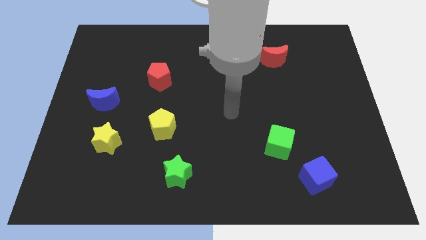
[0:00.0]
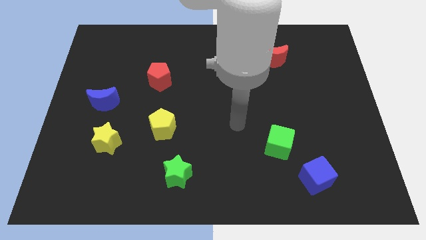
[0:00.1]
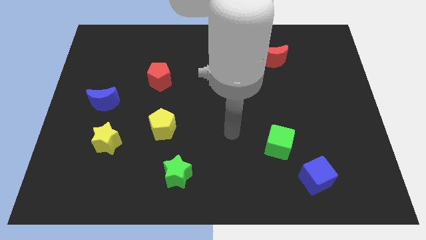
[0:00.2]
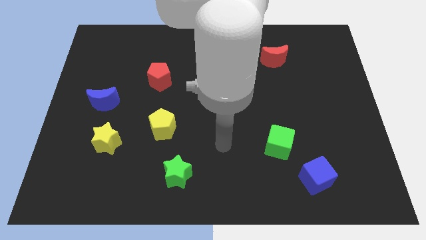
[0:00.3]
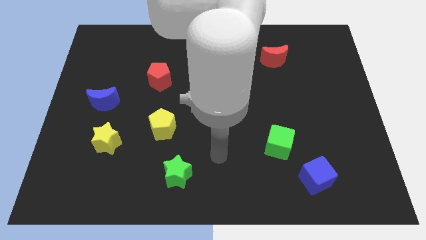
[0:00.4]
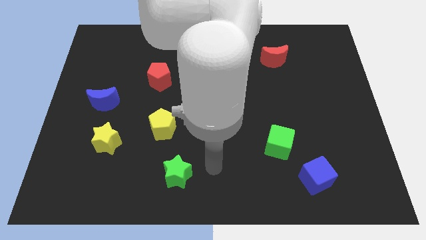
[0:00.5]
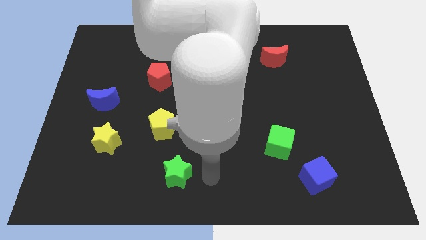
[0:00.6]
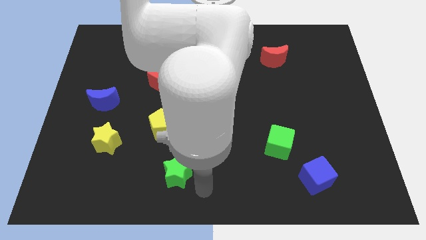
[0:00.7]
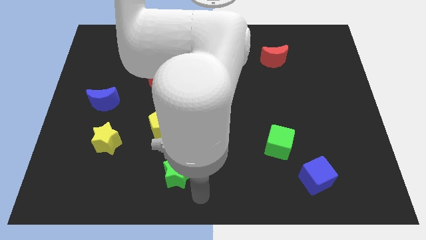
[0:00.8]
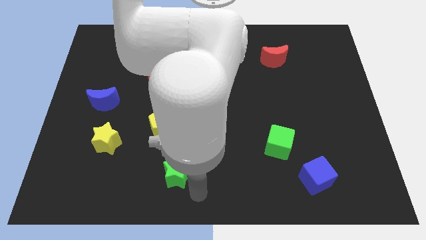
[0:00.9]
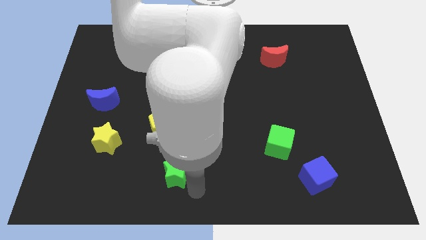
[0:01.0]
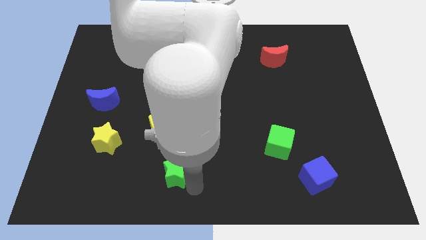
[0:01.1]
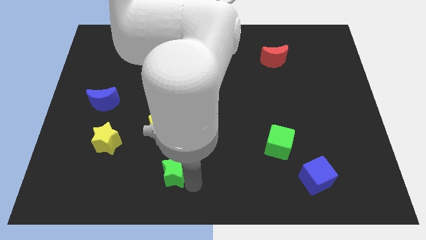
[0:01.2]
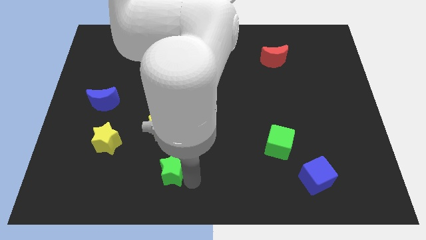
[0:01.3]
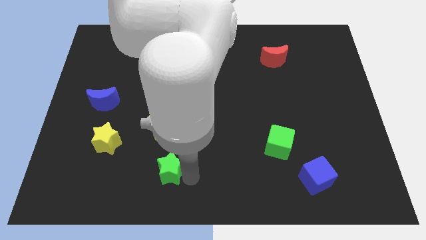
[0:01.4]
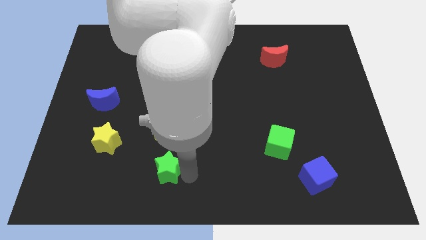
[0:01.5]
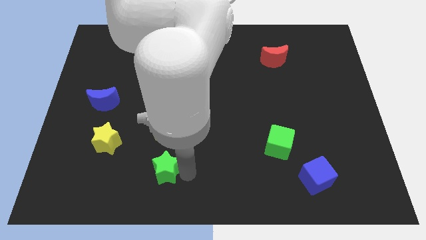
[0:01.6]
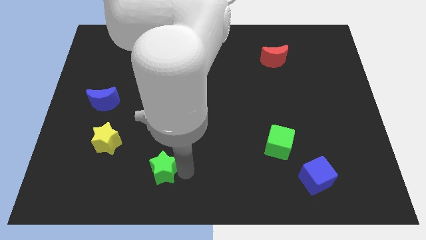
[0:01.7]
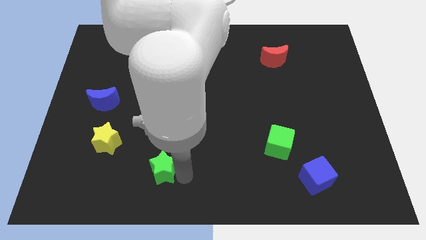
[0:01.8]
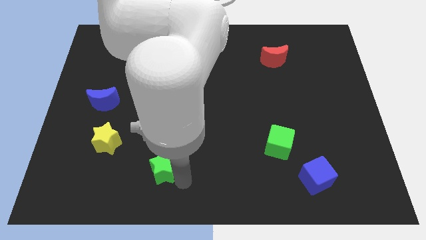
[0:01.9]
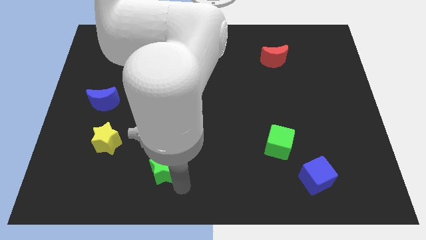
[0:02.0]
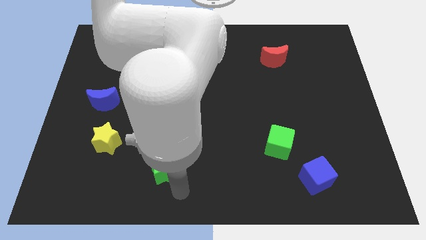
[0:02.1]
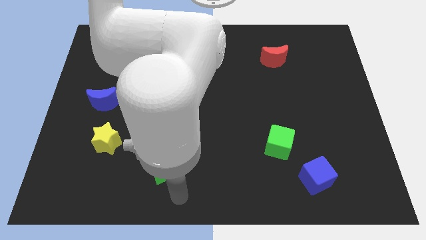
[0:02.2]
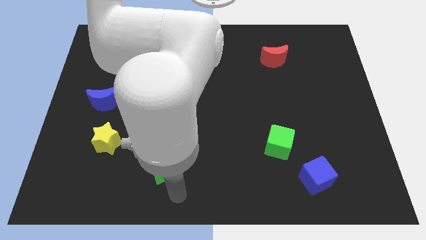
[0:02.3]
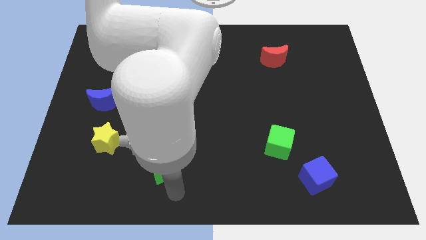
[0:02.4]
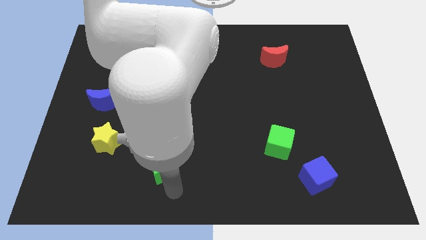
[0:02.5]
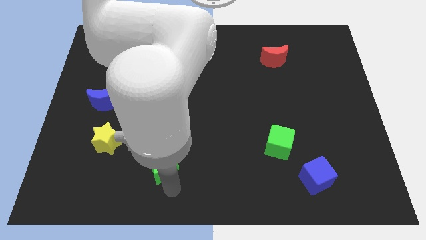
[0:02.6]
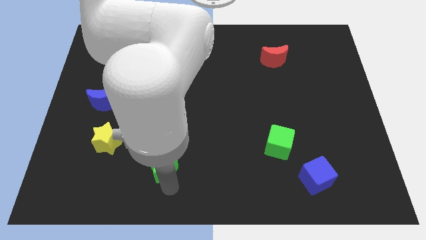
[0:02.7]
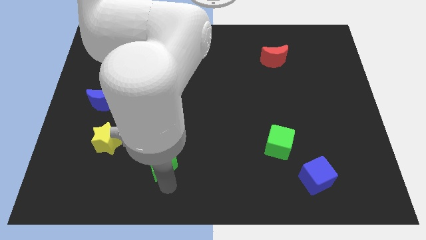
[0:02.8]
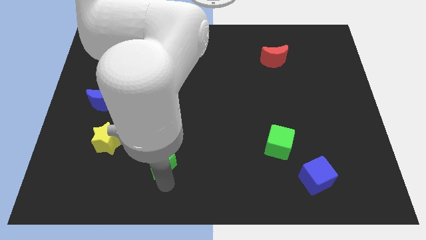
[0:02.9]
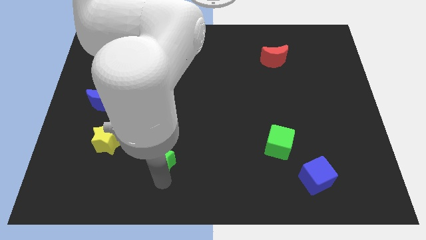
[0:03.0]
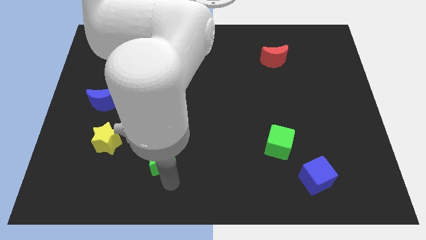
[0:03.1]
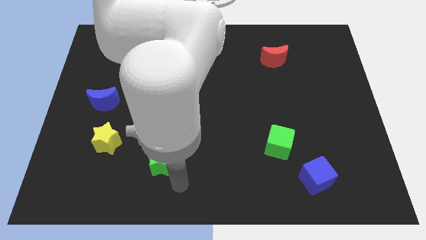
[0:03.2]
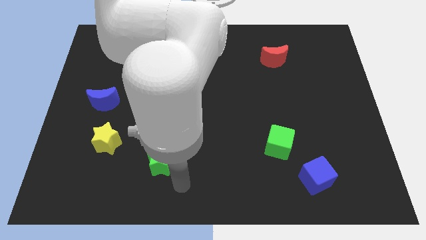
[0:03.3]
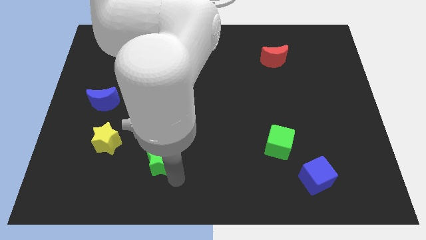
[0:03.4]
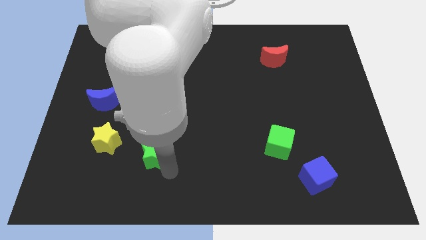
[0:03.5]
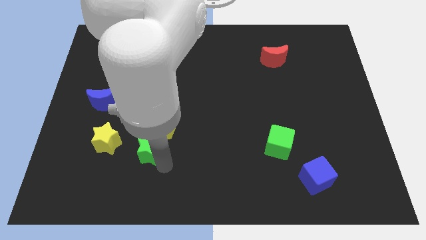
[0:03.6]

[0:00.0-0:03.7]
slide the green star upwards and then left slightly

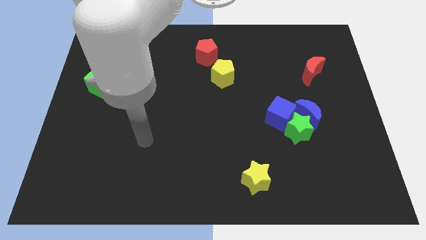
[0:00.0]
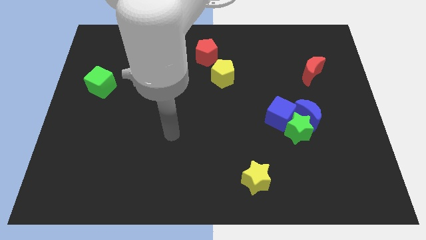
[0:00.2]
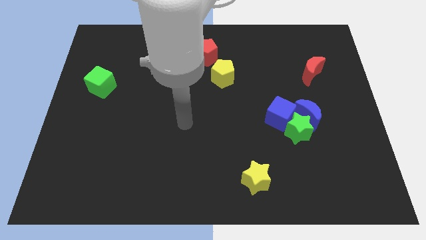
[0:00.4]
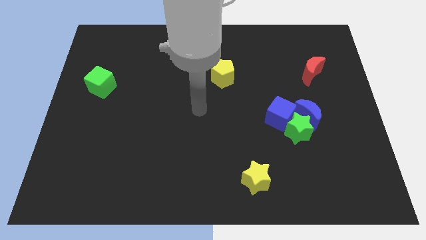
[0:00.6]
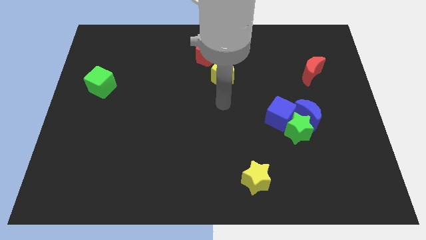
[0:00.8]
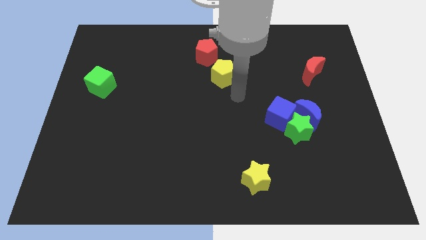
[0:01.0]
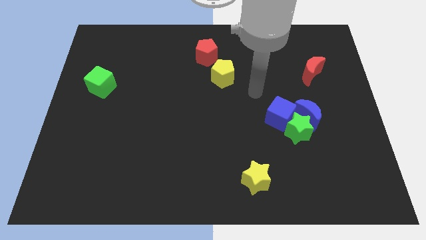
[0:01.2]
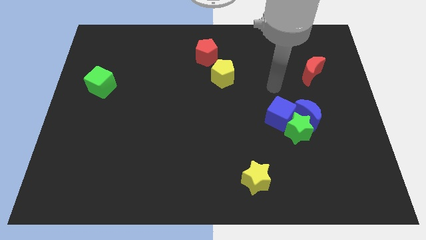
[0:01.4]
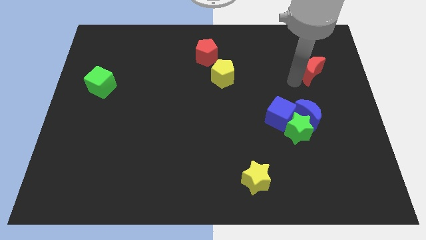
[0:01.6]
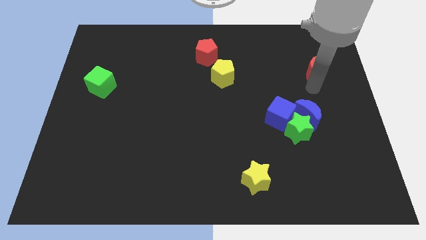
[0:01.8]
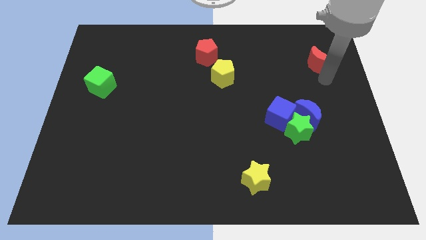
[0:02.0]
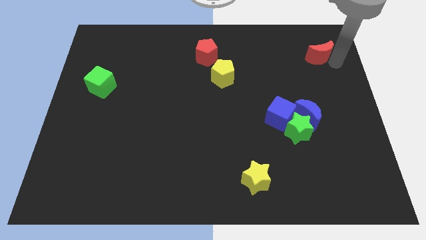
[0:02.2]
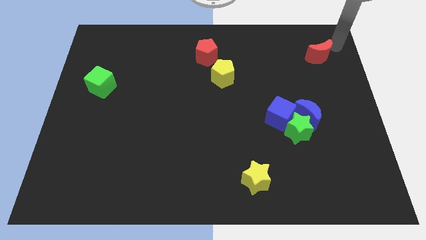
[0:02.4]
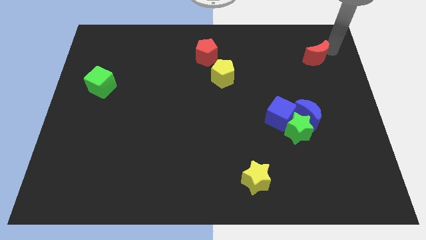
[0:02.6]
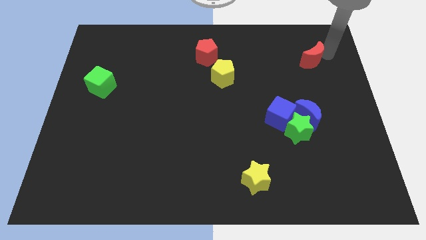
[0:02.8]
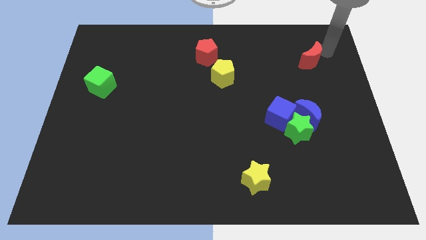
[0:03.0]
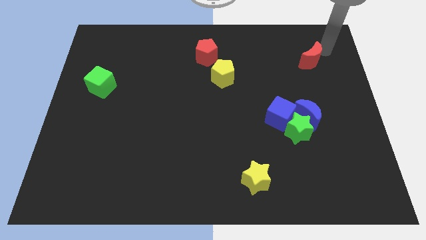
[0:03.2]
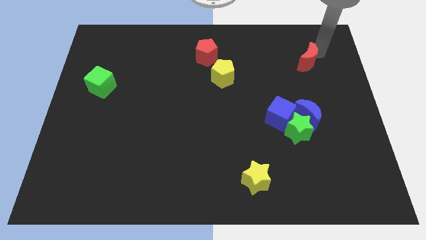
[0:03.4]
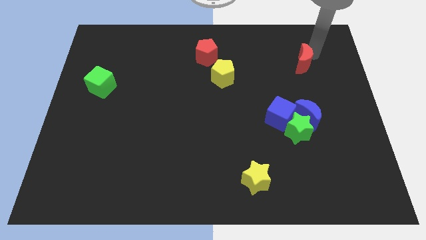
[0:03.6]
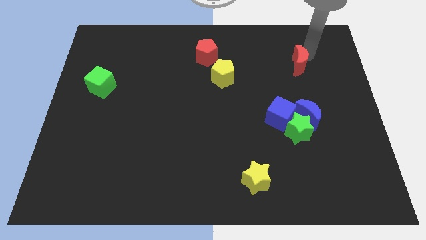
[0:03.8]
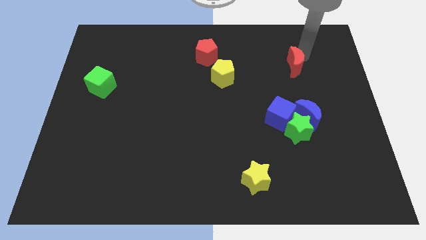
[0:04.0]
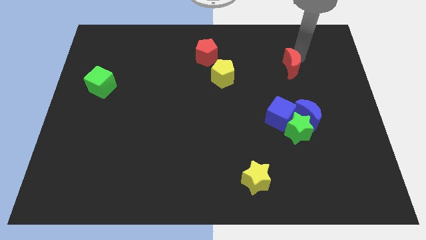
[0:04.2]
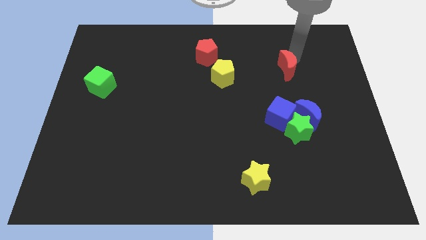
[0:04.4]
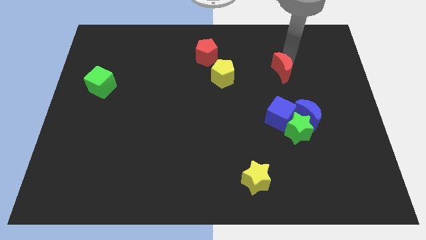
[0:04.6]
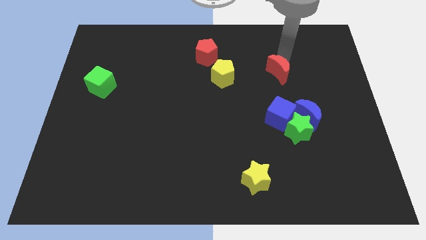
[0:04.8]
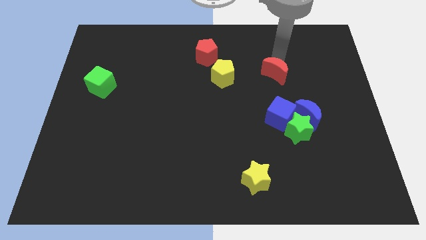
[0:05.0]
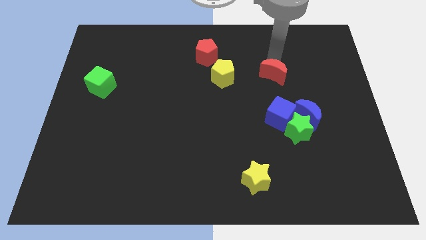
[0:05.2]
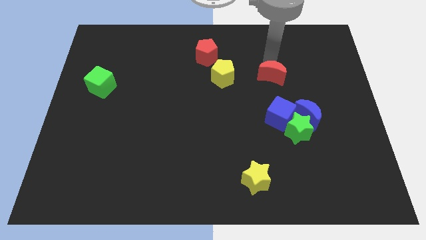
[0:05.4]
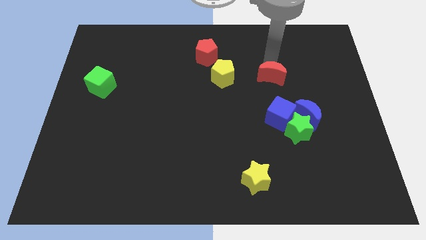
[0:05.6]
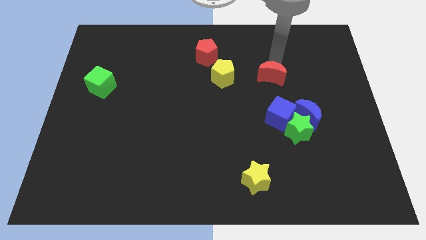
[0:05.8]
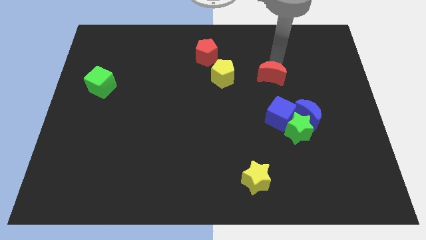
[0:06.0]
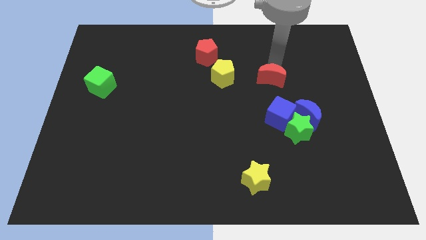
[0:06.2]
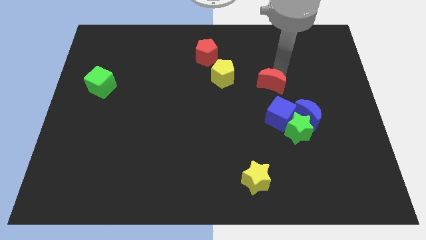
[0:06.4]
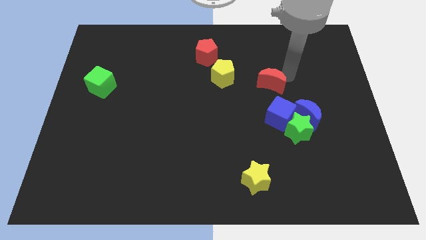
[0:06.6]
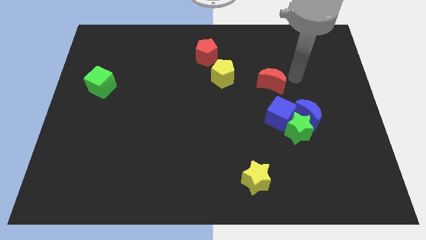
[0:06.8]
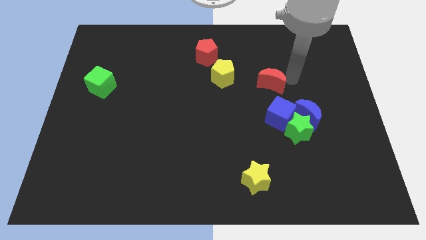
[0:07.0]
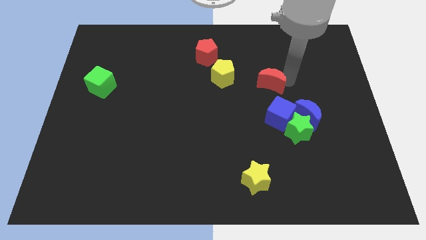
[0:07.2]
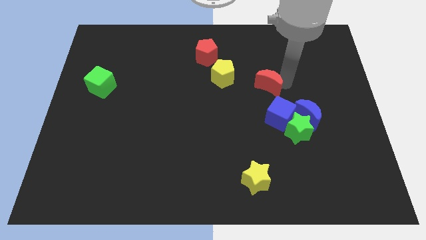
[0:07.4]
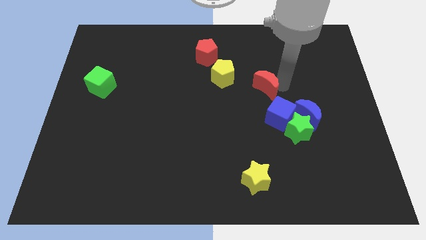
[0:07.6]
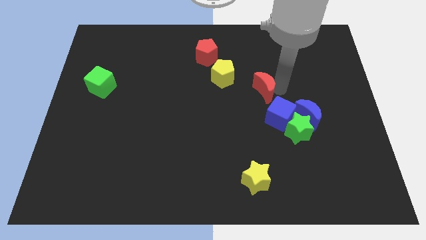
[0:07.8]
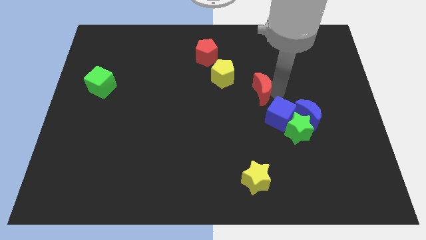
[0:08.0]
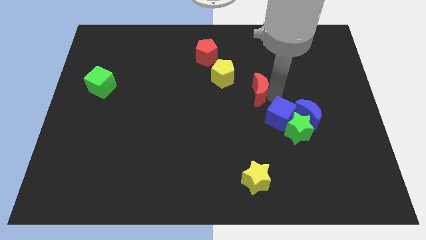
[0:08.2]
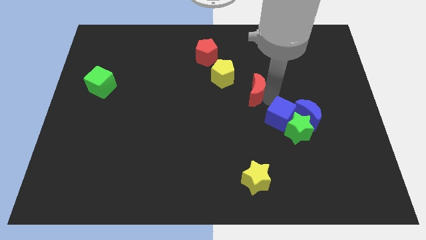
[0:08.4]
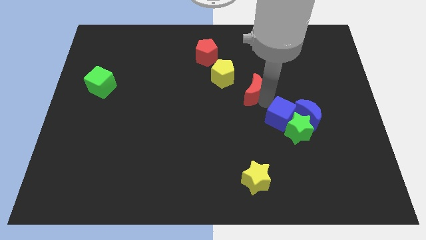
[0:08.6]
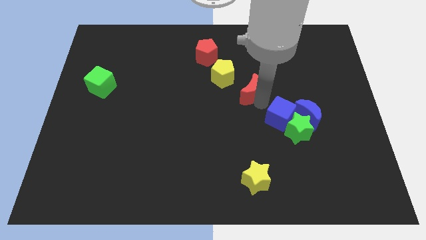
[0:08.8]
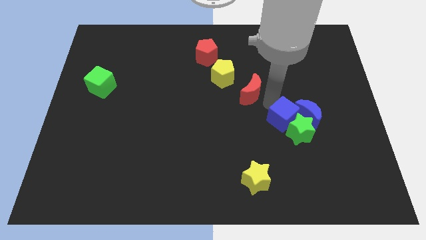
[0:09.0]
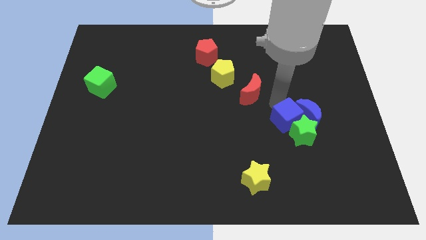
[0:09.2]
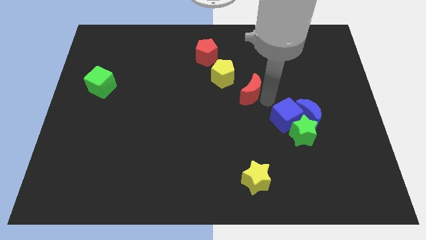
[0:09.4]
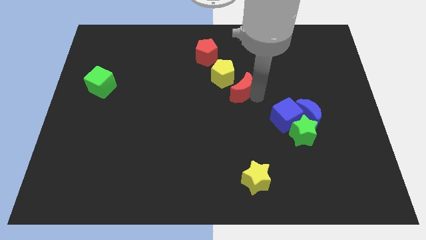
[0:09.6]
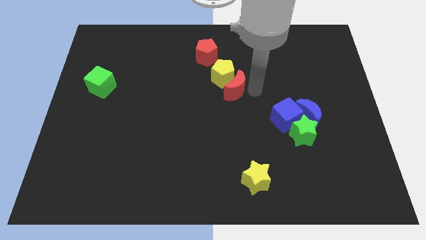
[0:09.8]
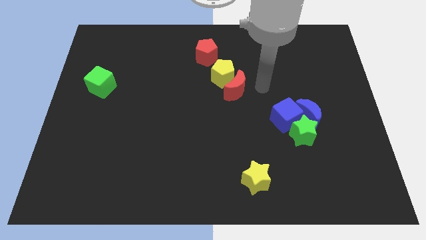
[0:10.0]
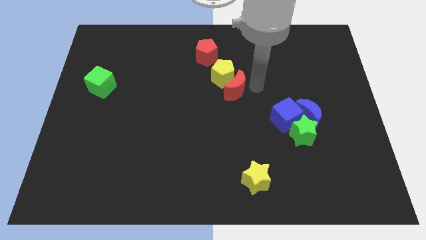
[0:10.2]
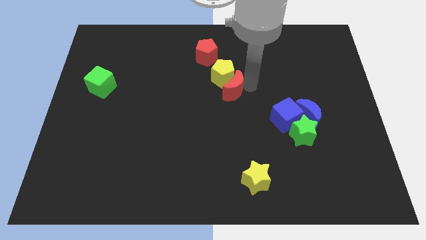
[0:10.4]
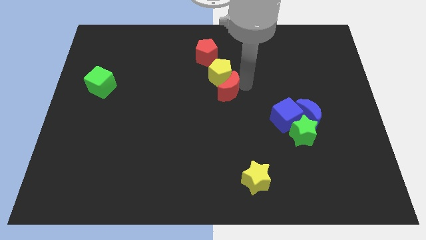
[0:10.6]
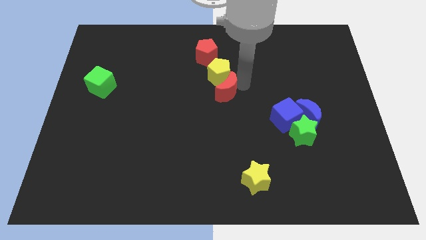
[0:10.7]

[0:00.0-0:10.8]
move the red moon left
